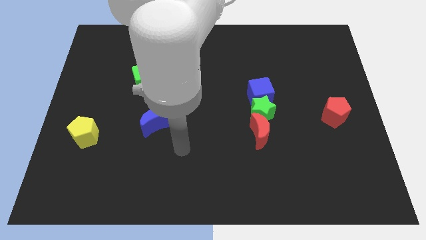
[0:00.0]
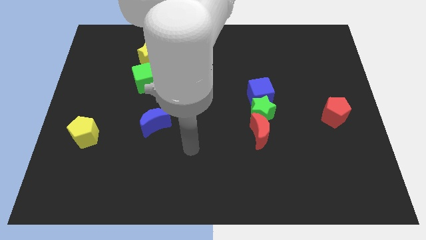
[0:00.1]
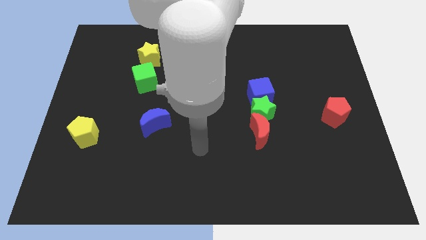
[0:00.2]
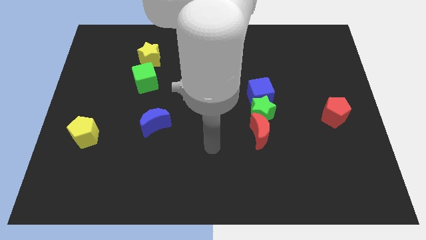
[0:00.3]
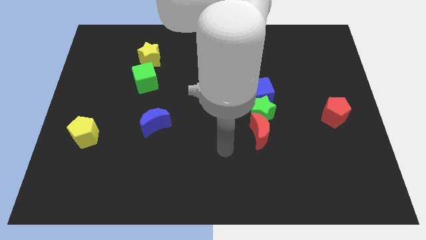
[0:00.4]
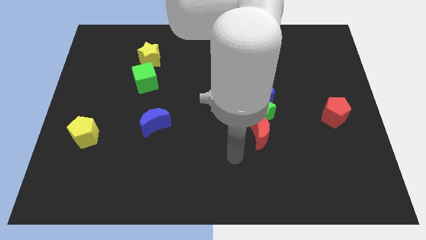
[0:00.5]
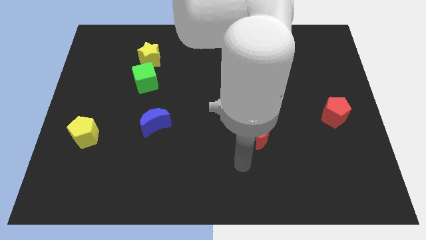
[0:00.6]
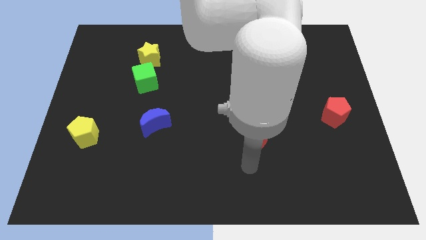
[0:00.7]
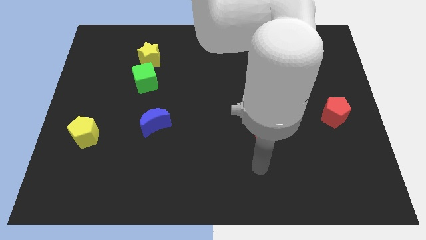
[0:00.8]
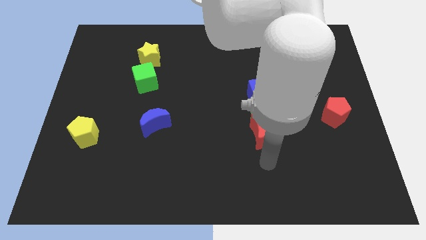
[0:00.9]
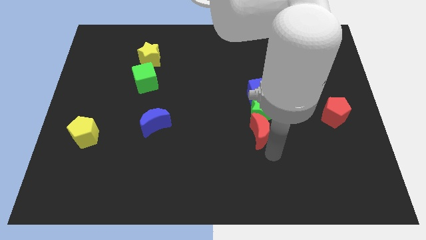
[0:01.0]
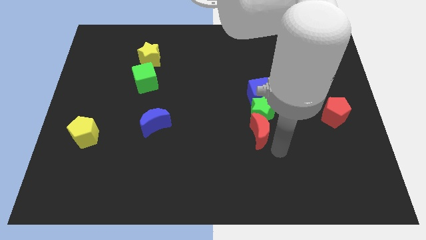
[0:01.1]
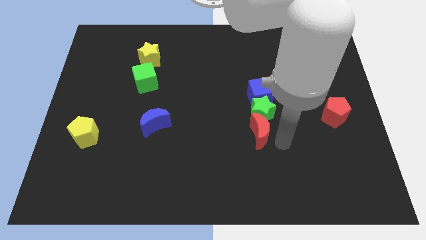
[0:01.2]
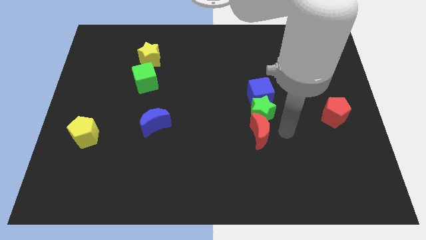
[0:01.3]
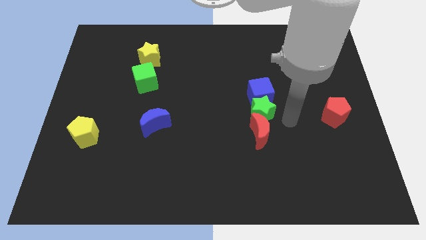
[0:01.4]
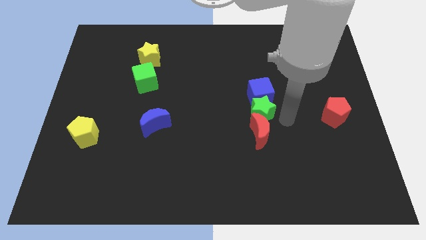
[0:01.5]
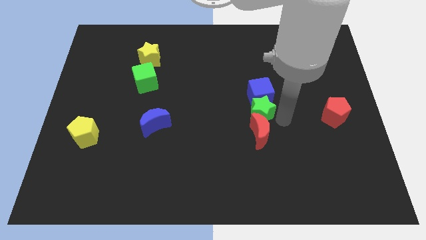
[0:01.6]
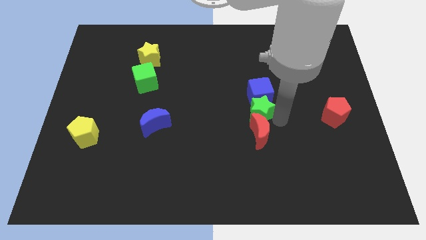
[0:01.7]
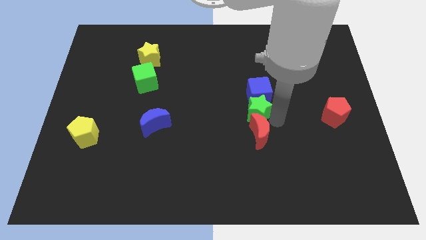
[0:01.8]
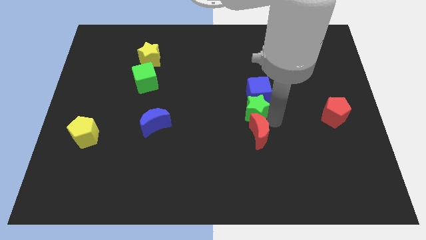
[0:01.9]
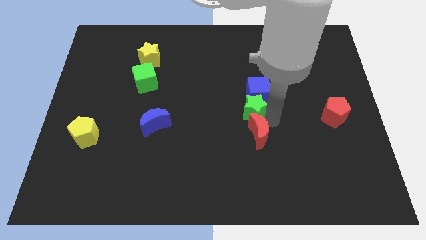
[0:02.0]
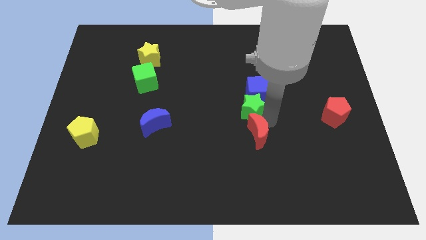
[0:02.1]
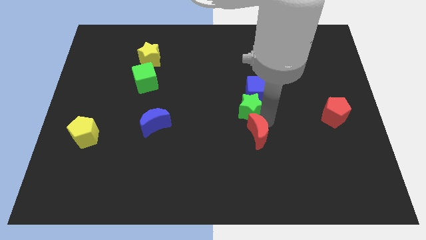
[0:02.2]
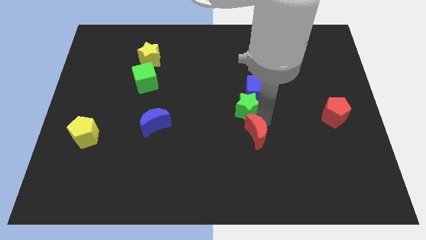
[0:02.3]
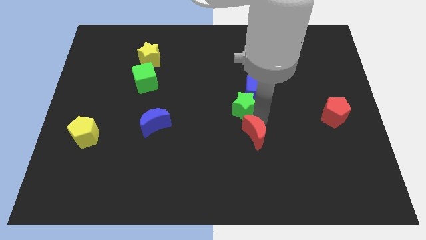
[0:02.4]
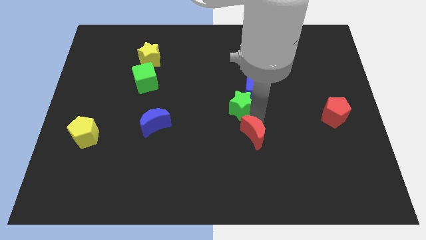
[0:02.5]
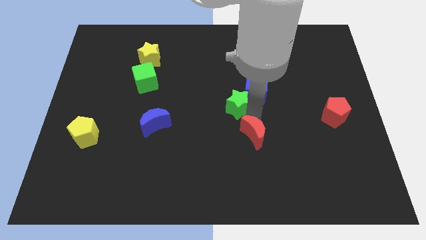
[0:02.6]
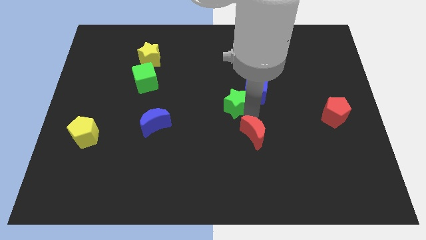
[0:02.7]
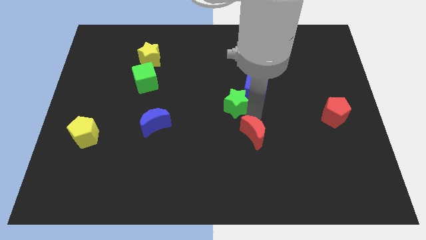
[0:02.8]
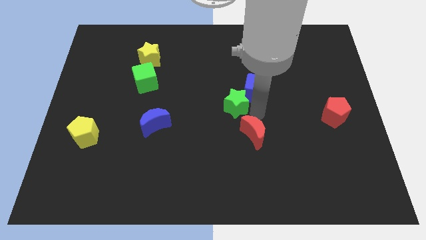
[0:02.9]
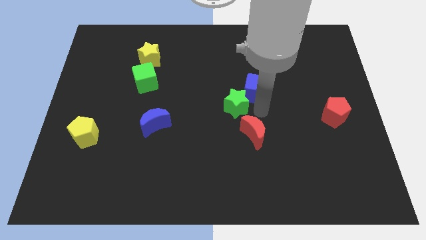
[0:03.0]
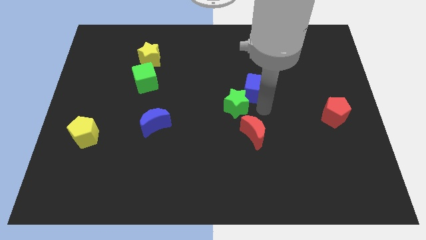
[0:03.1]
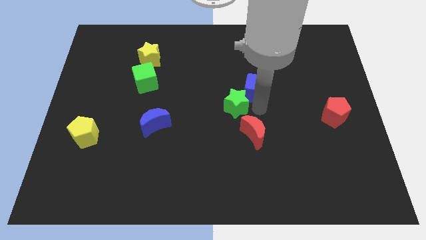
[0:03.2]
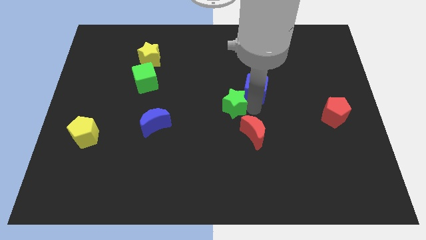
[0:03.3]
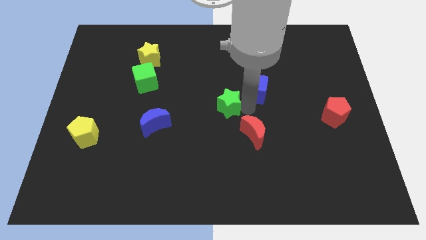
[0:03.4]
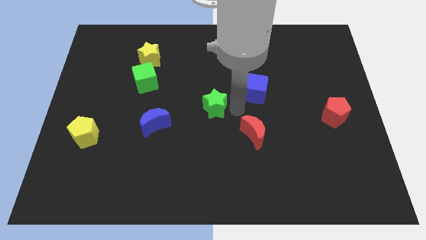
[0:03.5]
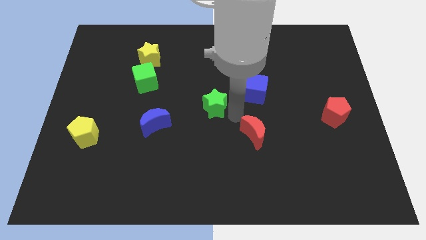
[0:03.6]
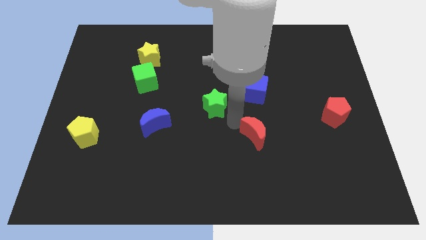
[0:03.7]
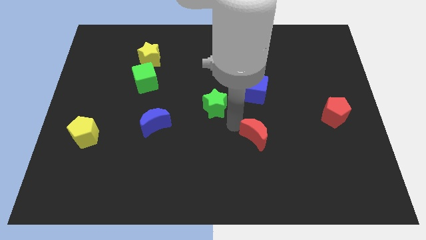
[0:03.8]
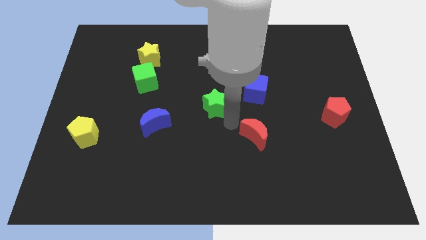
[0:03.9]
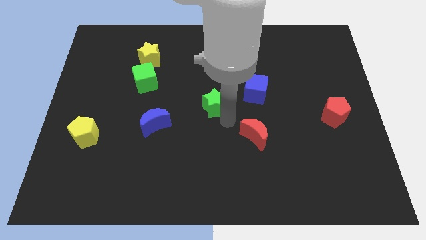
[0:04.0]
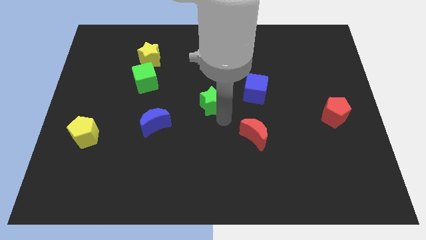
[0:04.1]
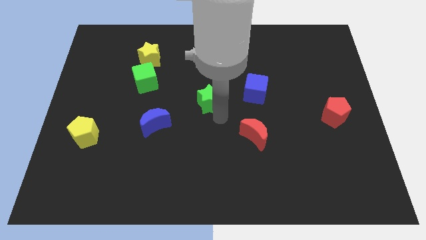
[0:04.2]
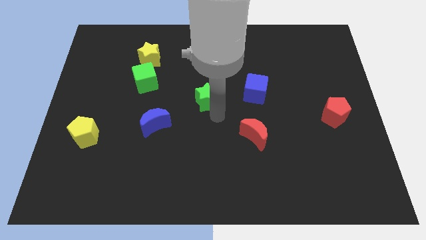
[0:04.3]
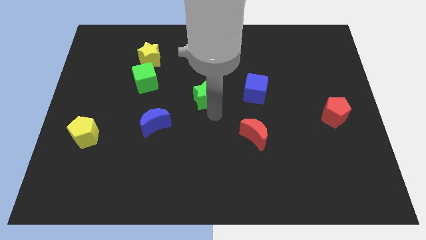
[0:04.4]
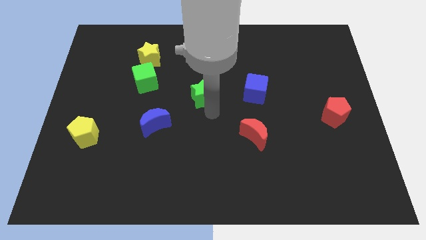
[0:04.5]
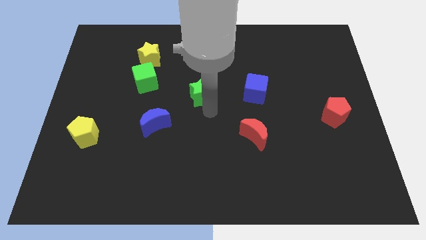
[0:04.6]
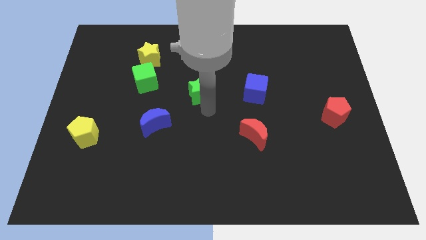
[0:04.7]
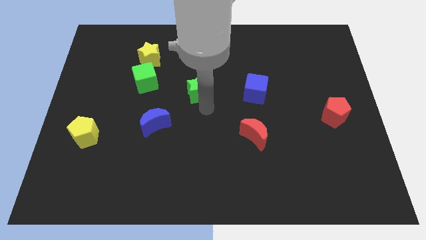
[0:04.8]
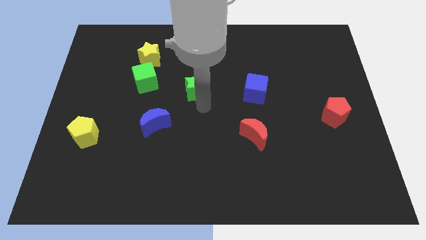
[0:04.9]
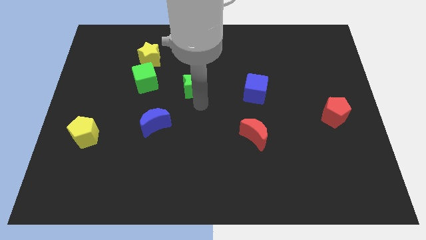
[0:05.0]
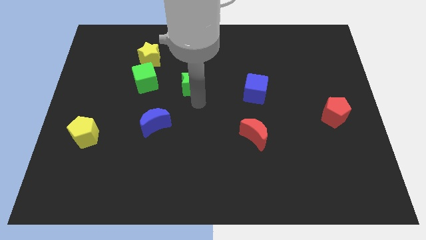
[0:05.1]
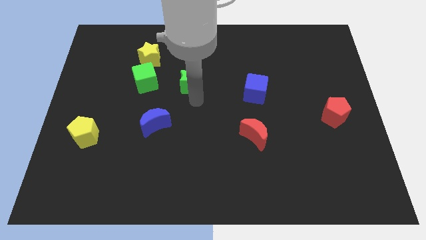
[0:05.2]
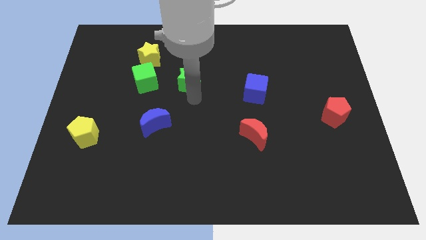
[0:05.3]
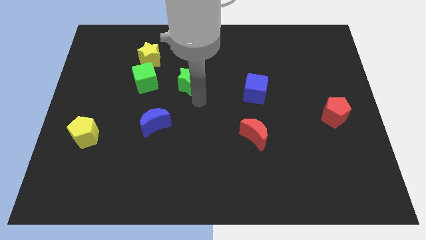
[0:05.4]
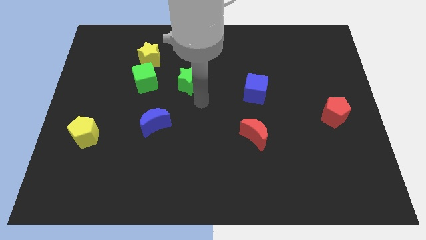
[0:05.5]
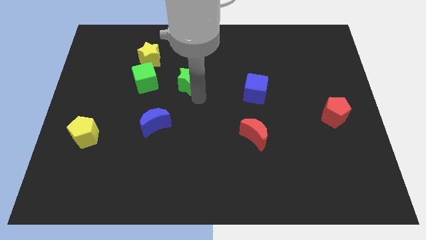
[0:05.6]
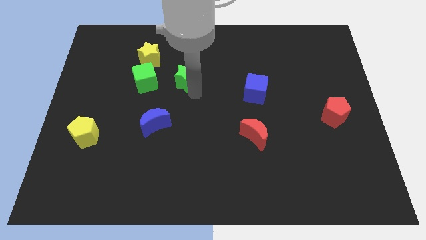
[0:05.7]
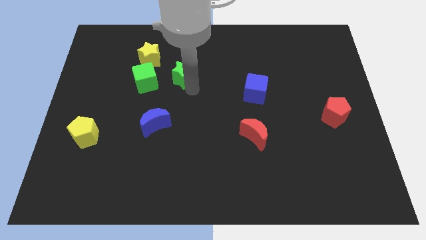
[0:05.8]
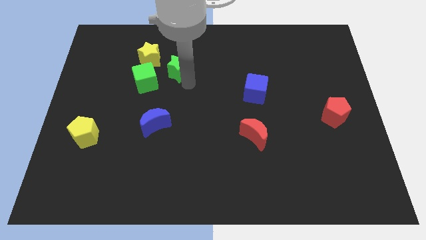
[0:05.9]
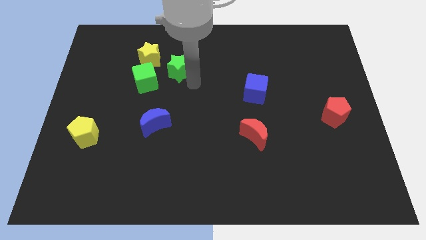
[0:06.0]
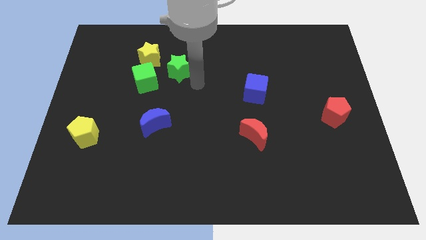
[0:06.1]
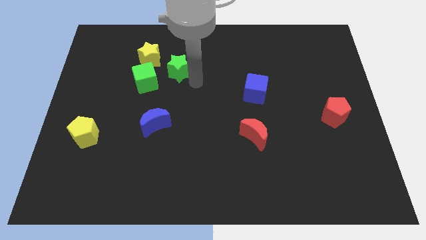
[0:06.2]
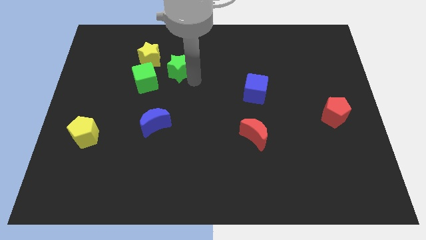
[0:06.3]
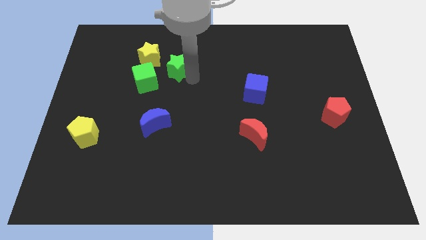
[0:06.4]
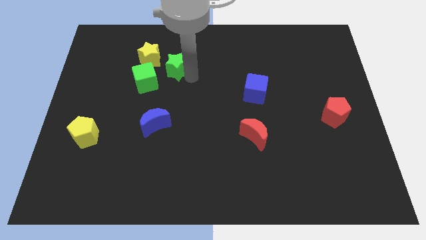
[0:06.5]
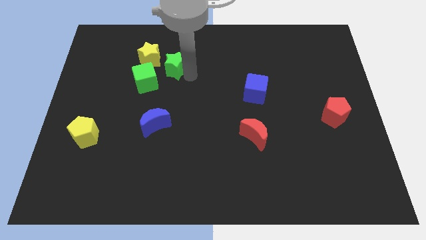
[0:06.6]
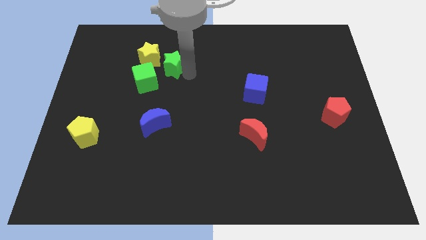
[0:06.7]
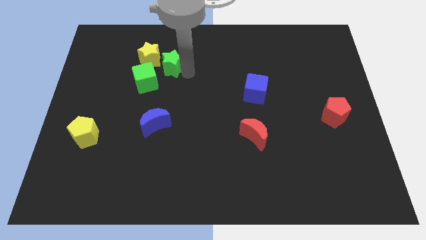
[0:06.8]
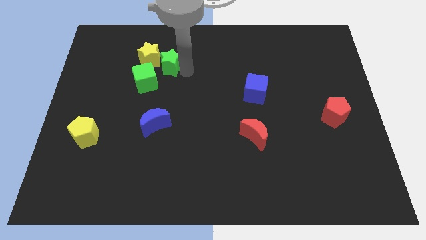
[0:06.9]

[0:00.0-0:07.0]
put the green star next to the yellow star
